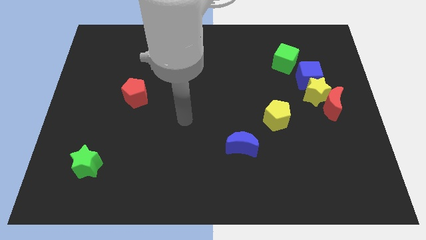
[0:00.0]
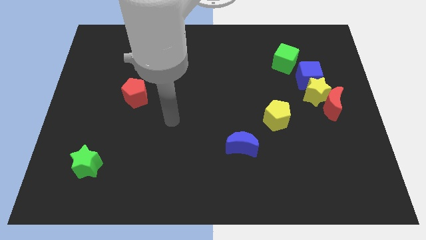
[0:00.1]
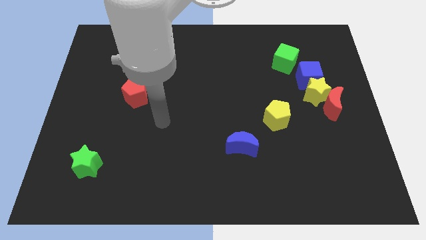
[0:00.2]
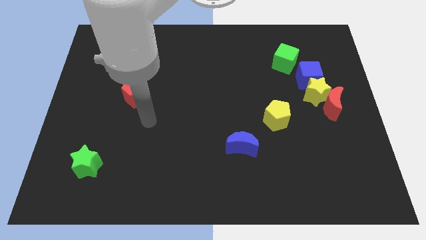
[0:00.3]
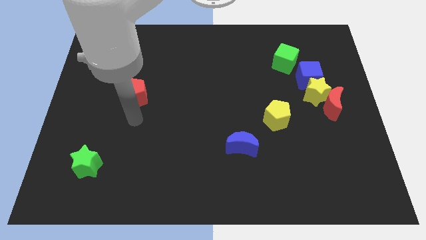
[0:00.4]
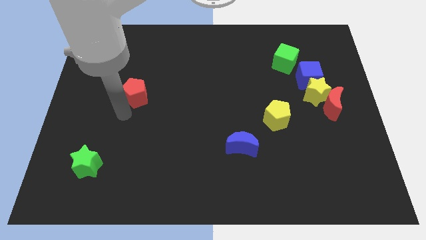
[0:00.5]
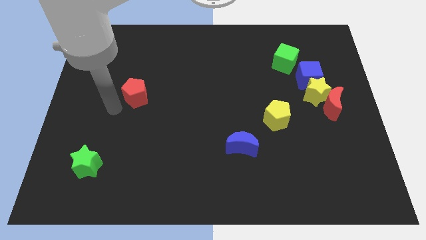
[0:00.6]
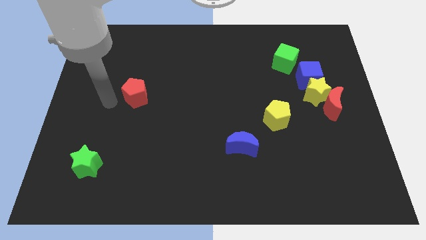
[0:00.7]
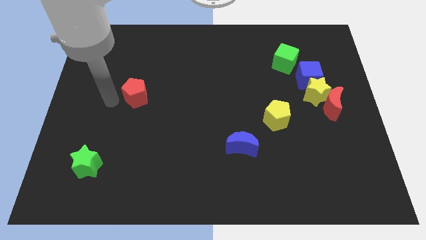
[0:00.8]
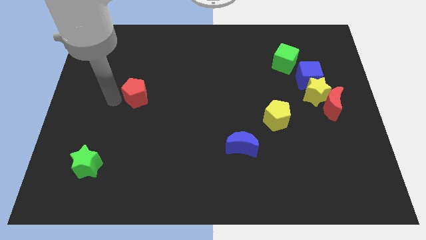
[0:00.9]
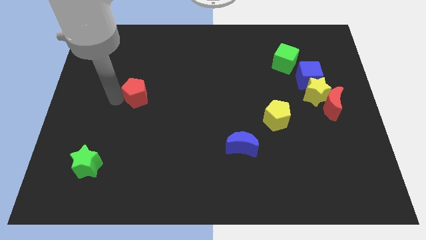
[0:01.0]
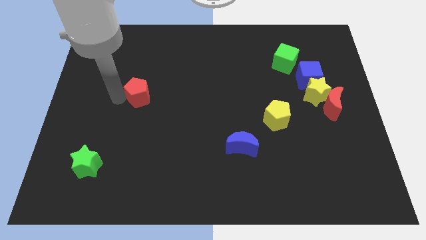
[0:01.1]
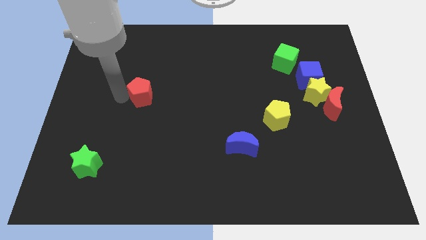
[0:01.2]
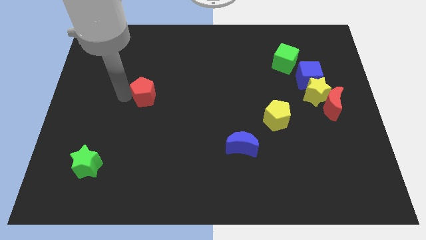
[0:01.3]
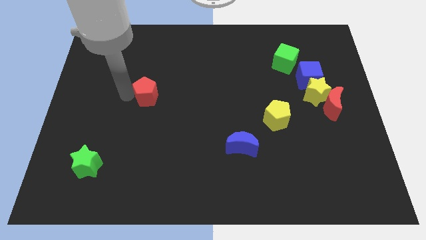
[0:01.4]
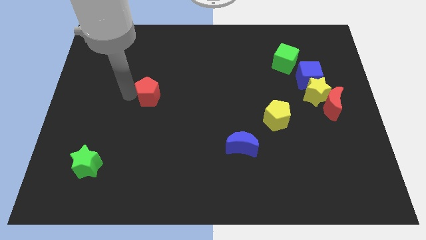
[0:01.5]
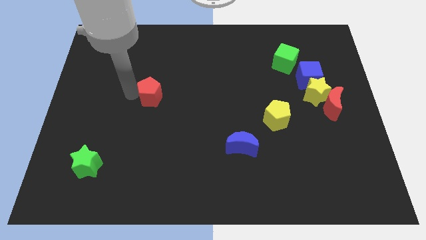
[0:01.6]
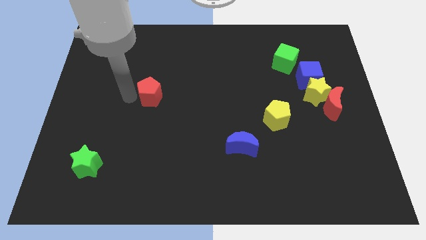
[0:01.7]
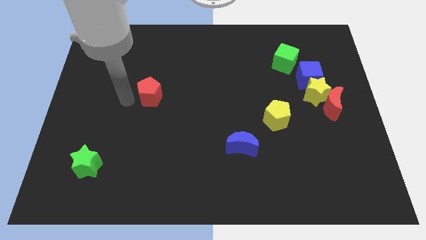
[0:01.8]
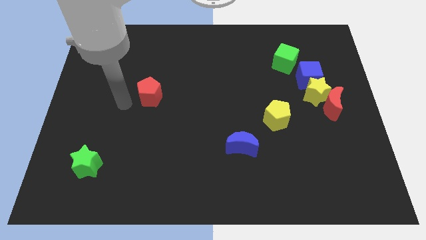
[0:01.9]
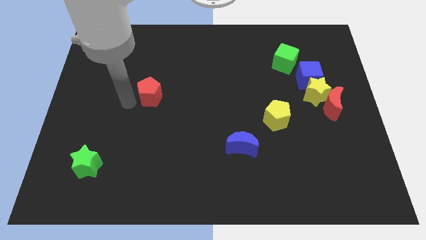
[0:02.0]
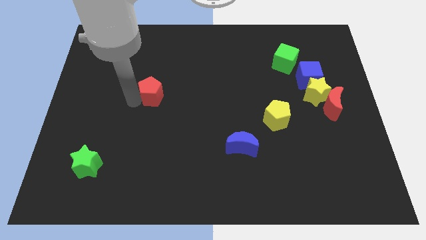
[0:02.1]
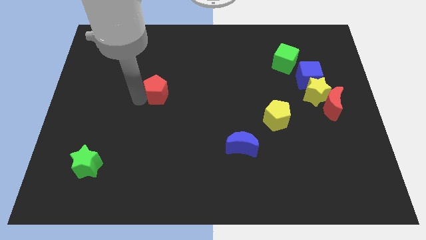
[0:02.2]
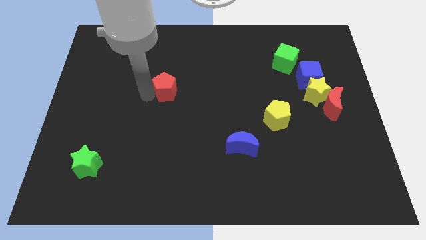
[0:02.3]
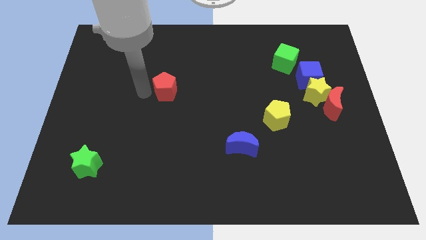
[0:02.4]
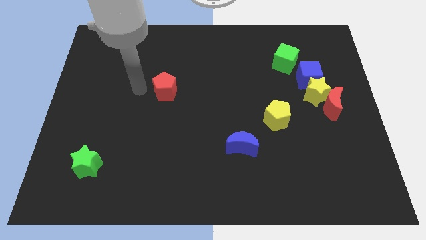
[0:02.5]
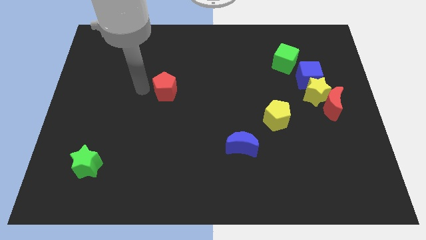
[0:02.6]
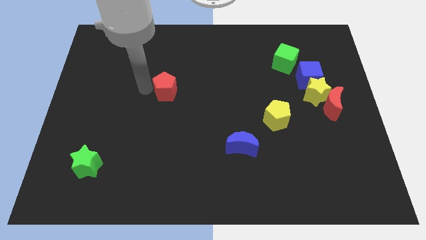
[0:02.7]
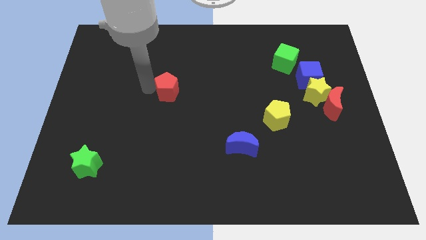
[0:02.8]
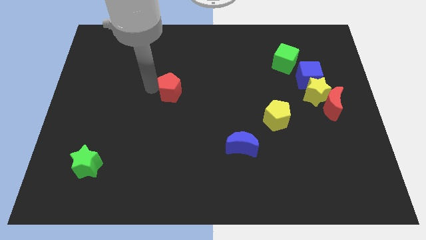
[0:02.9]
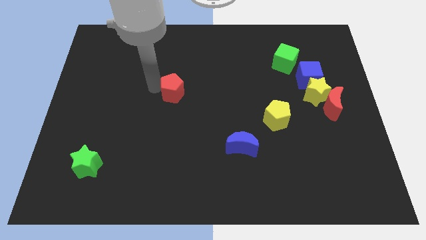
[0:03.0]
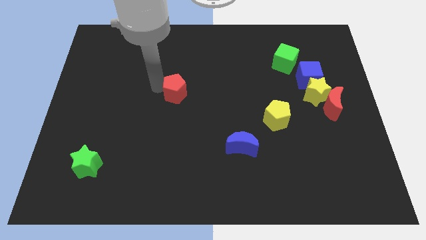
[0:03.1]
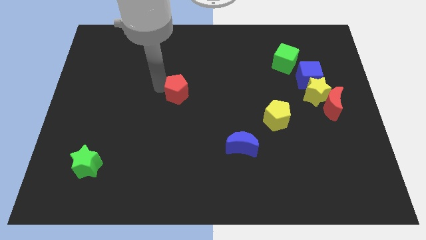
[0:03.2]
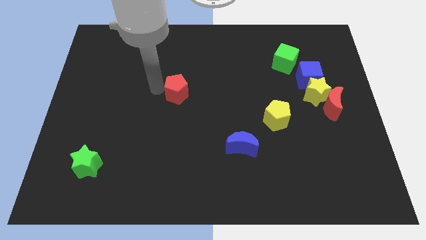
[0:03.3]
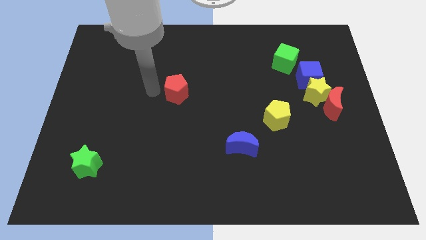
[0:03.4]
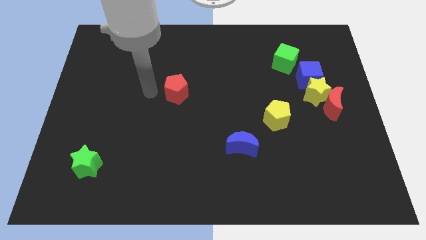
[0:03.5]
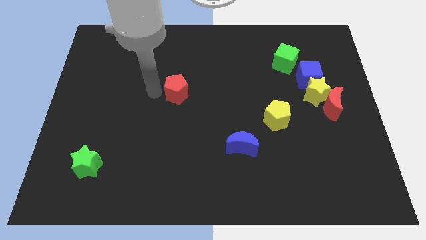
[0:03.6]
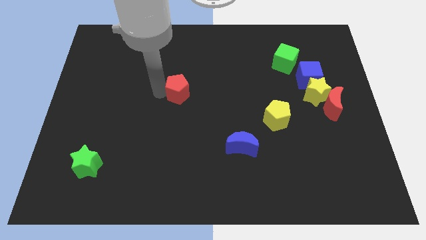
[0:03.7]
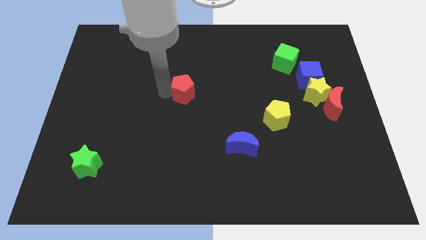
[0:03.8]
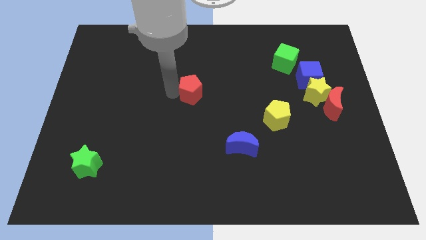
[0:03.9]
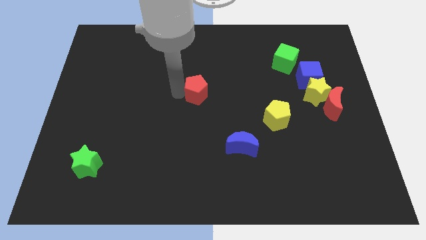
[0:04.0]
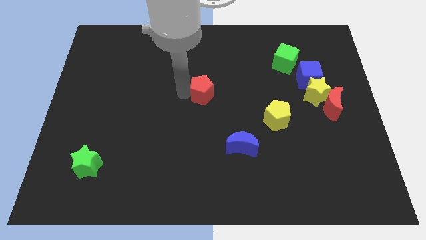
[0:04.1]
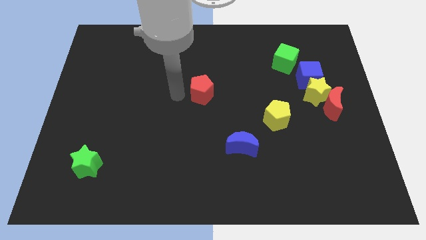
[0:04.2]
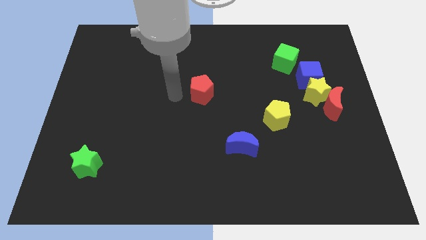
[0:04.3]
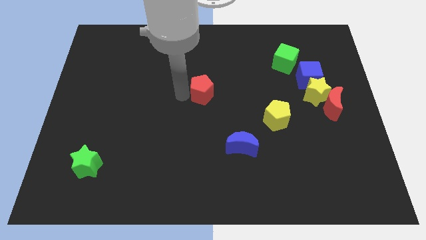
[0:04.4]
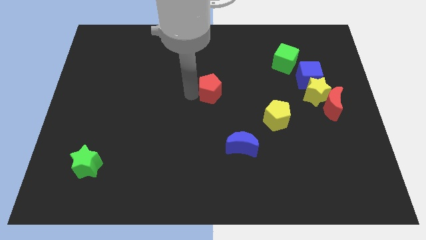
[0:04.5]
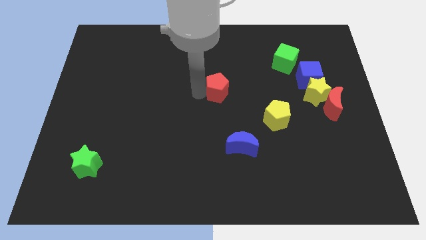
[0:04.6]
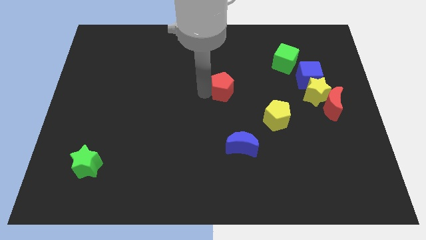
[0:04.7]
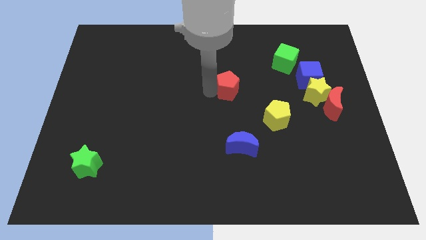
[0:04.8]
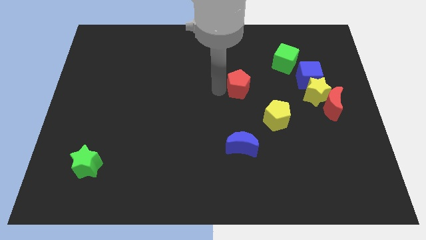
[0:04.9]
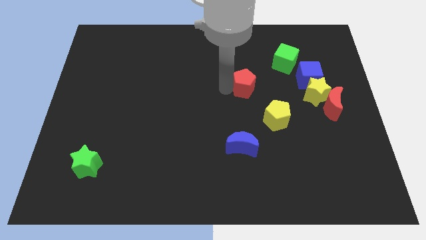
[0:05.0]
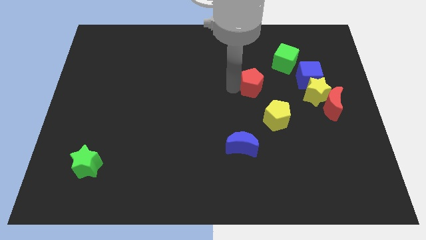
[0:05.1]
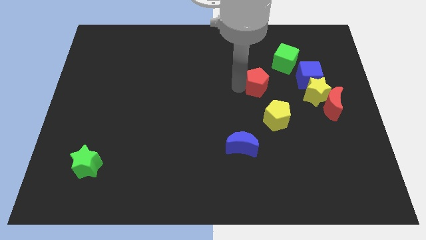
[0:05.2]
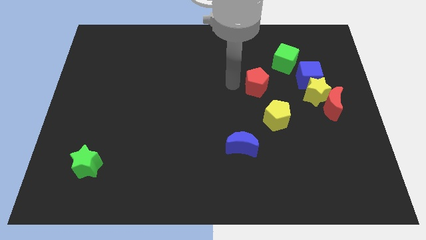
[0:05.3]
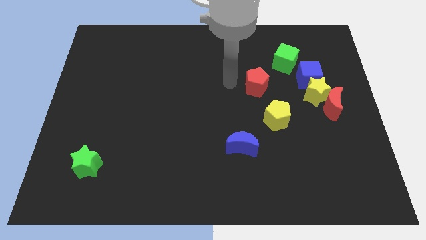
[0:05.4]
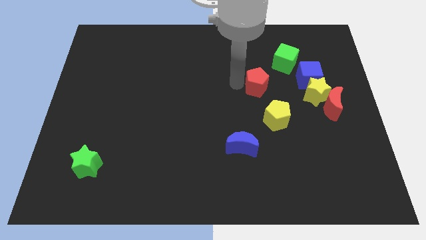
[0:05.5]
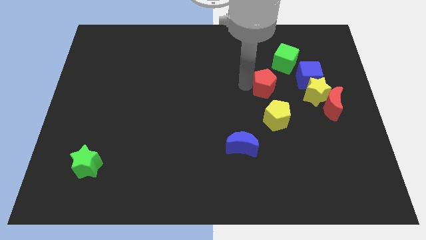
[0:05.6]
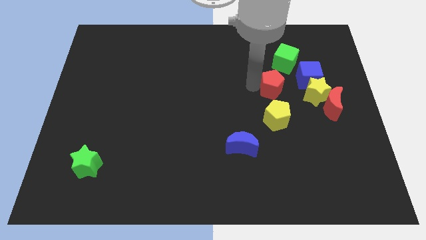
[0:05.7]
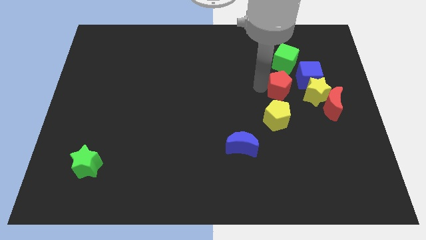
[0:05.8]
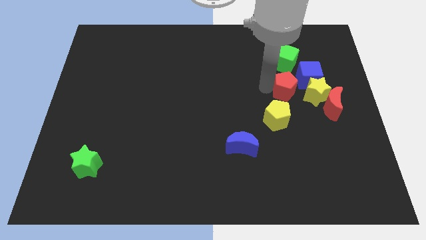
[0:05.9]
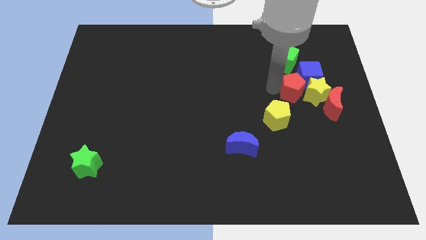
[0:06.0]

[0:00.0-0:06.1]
move the red pentagon towards the yellow star

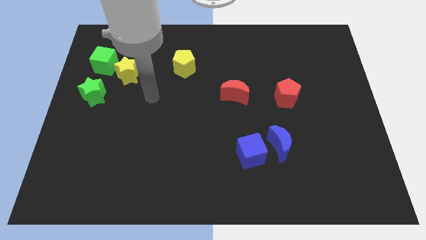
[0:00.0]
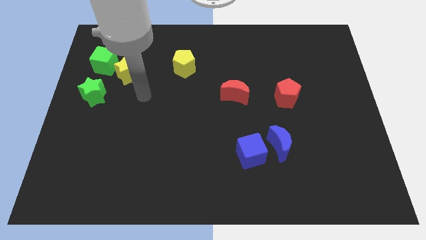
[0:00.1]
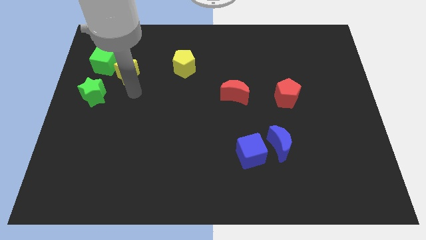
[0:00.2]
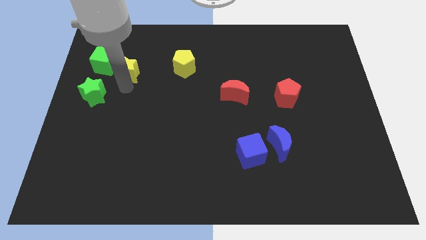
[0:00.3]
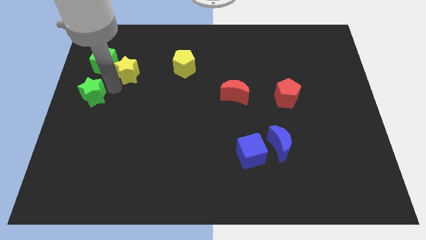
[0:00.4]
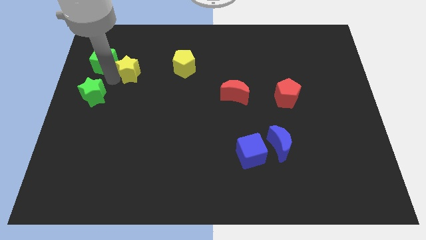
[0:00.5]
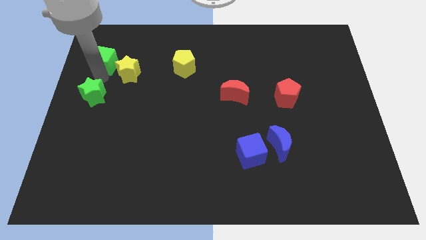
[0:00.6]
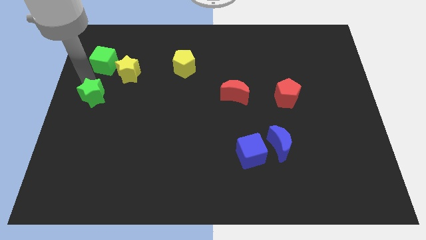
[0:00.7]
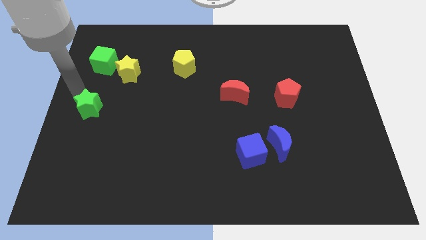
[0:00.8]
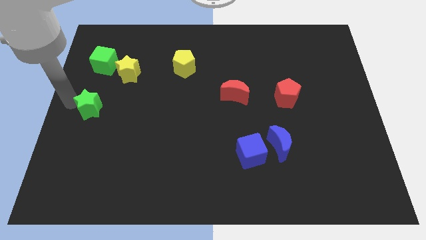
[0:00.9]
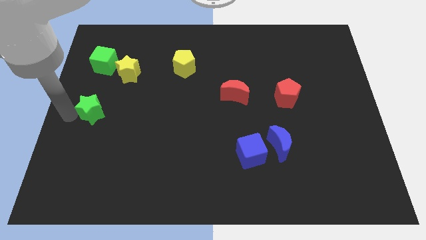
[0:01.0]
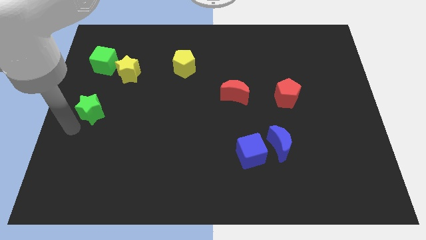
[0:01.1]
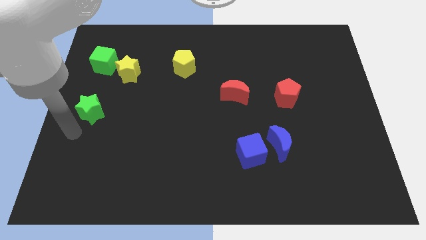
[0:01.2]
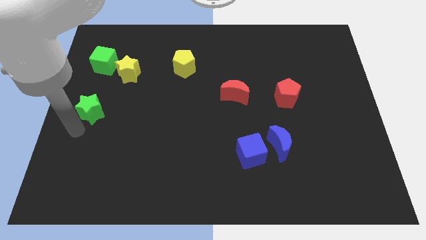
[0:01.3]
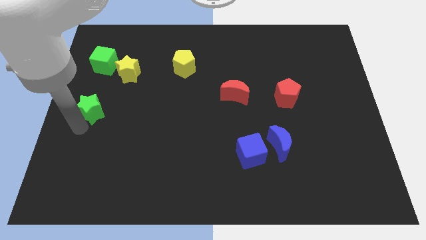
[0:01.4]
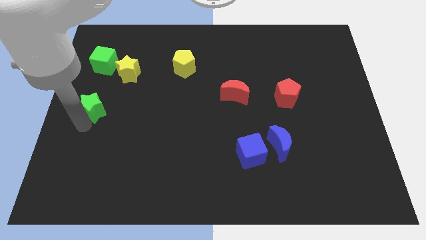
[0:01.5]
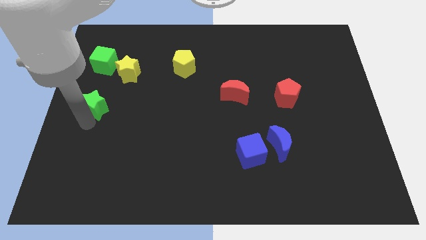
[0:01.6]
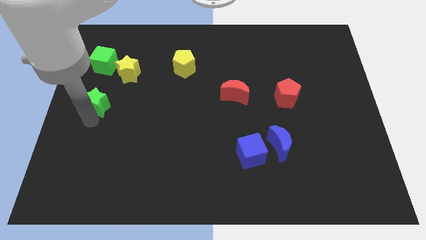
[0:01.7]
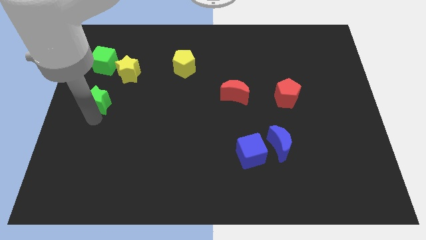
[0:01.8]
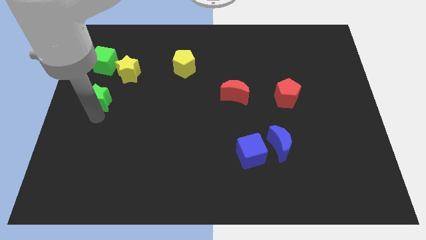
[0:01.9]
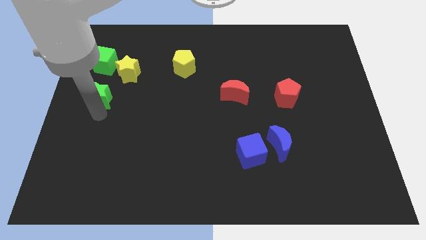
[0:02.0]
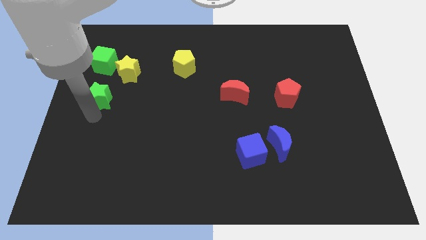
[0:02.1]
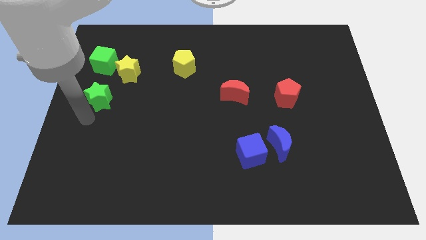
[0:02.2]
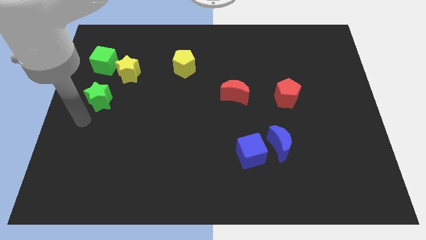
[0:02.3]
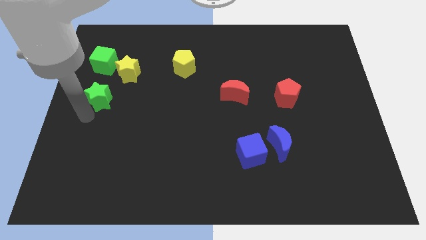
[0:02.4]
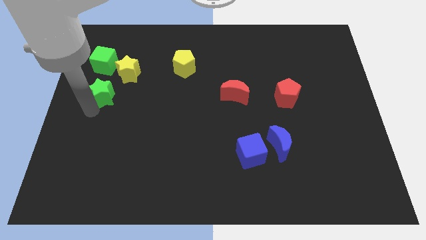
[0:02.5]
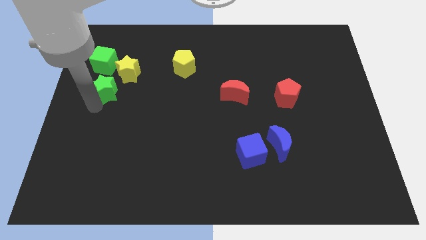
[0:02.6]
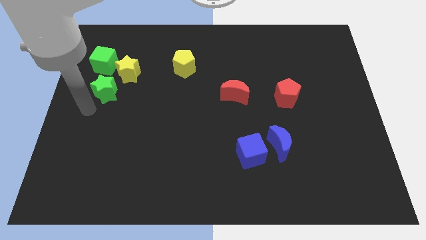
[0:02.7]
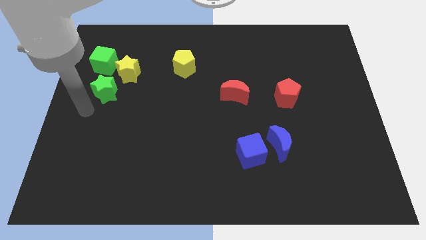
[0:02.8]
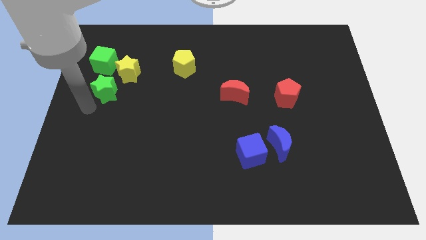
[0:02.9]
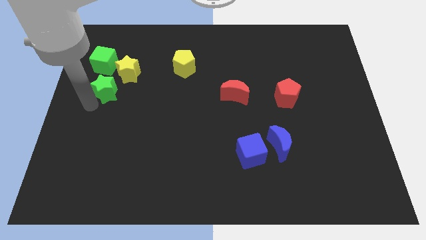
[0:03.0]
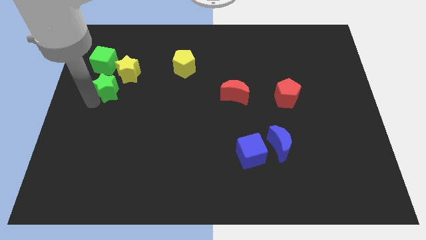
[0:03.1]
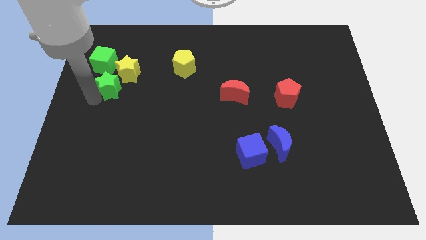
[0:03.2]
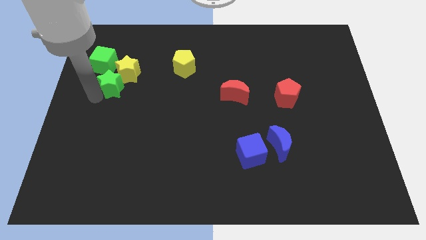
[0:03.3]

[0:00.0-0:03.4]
put the green star close to the yellow star
